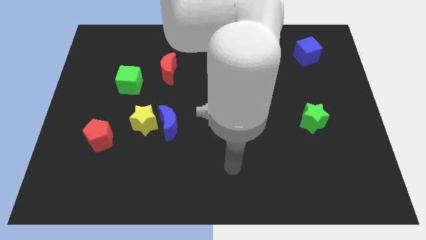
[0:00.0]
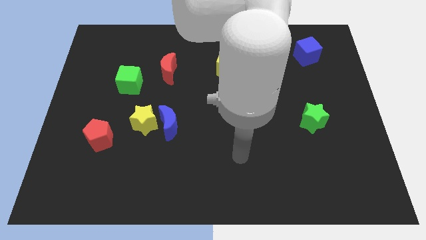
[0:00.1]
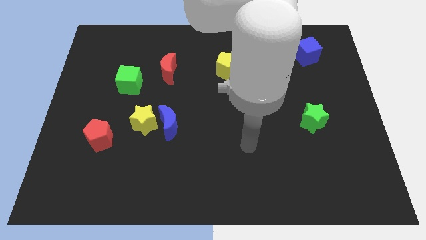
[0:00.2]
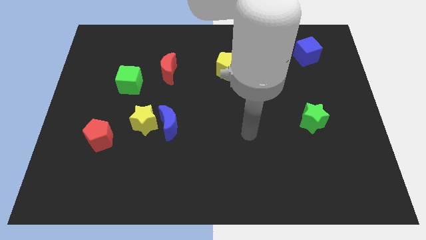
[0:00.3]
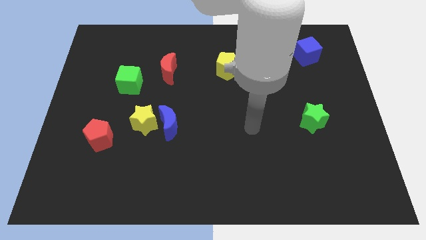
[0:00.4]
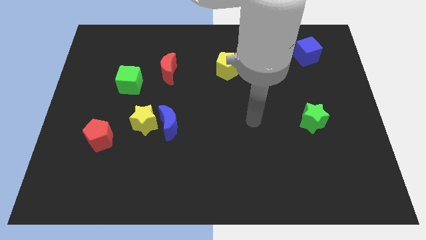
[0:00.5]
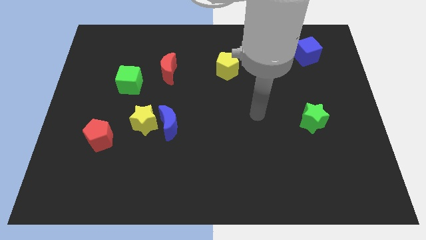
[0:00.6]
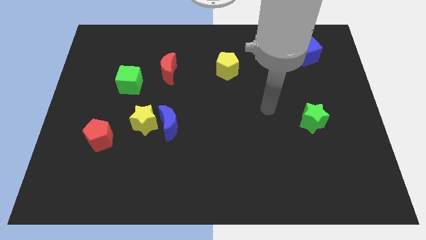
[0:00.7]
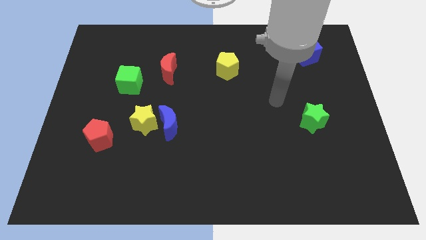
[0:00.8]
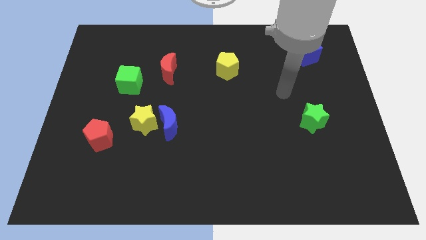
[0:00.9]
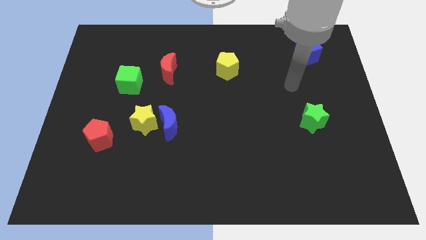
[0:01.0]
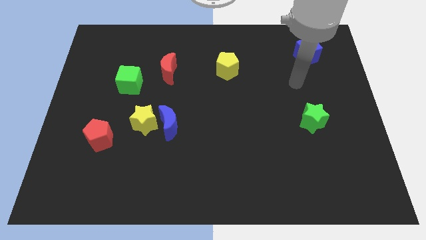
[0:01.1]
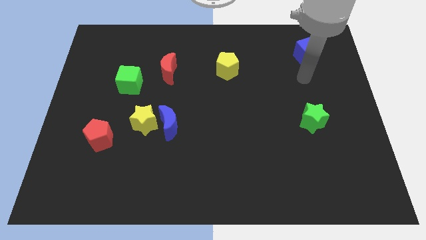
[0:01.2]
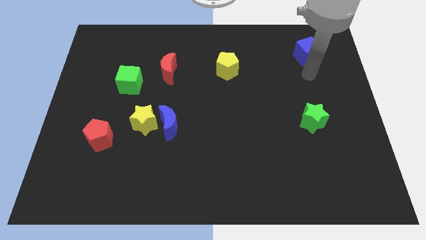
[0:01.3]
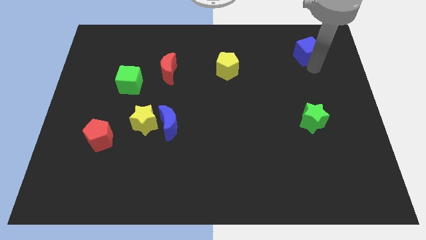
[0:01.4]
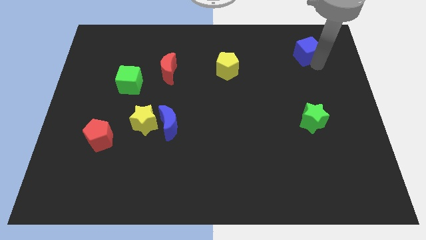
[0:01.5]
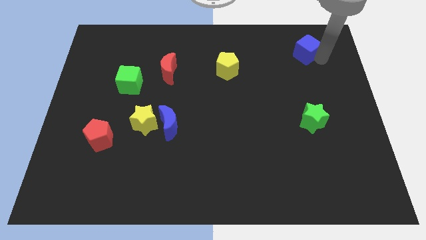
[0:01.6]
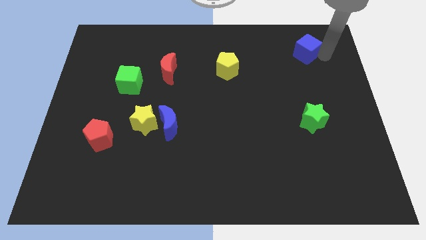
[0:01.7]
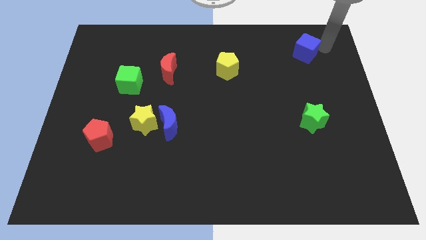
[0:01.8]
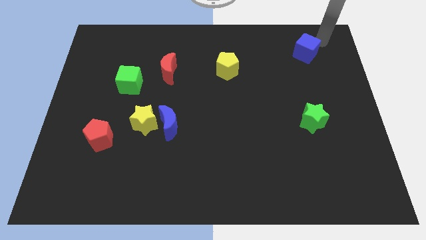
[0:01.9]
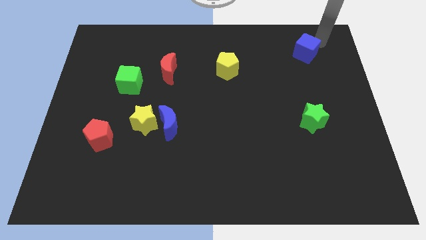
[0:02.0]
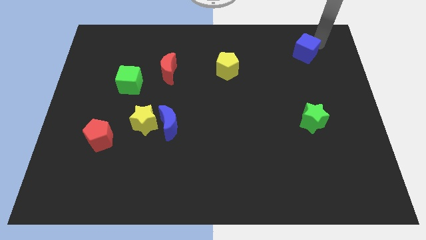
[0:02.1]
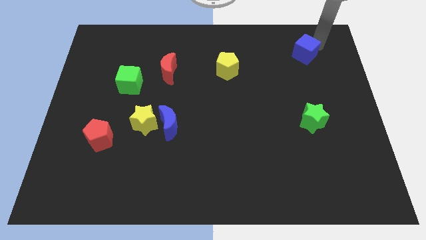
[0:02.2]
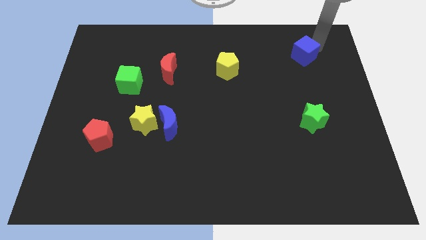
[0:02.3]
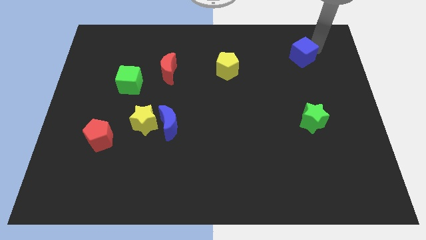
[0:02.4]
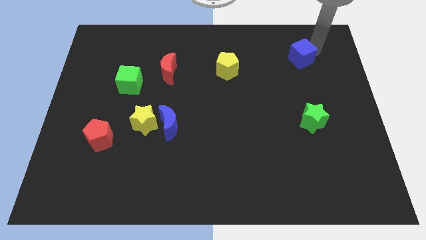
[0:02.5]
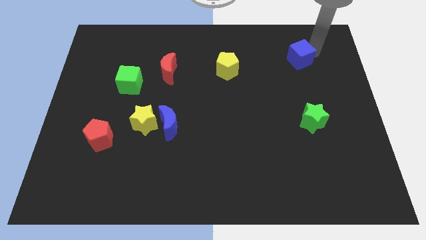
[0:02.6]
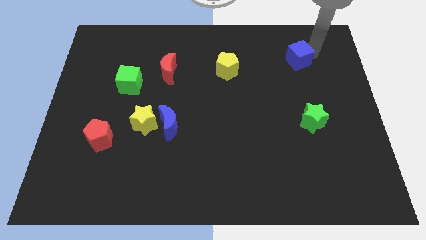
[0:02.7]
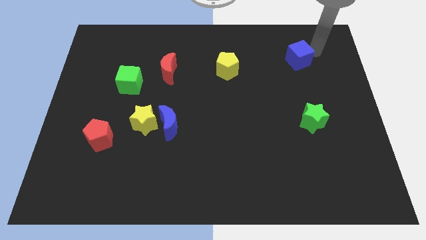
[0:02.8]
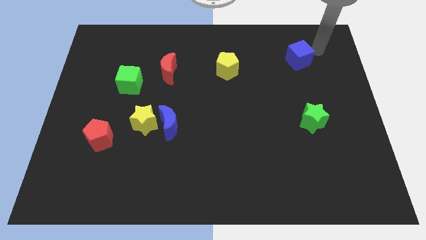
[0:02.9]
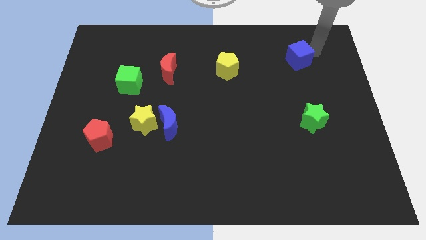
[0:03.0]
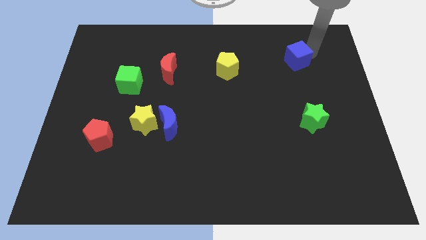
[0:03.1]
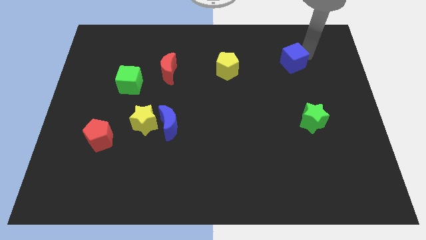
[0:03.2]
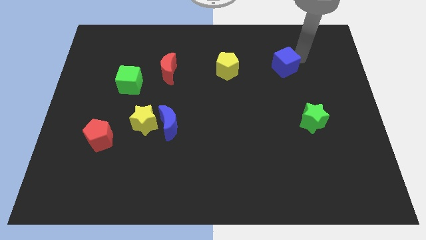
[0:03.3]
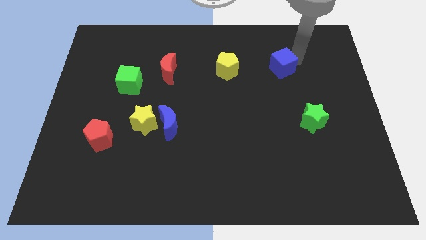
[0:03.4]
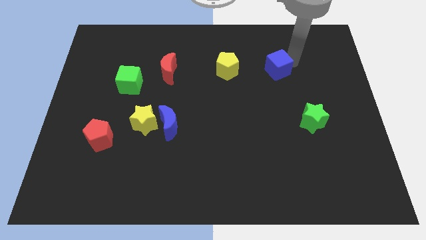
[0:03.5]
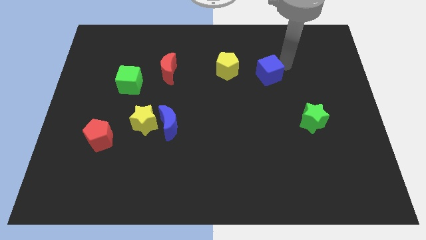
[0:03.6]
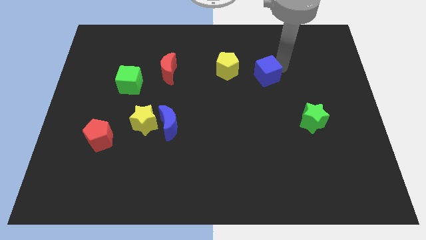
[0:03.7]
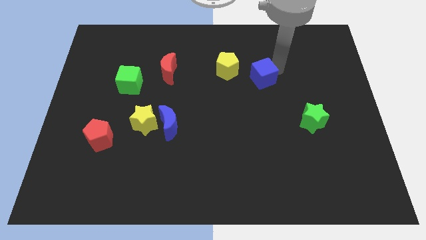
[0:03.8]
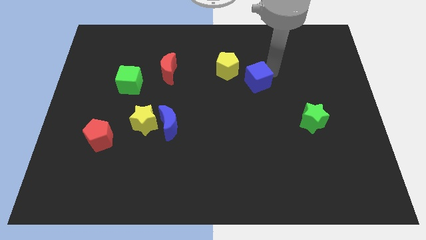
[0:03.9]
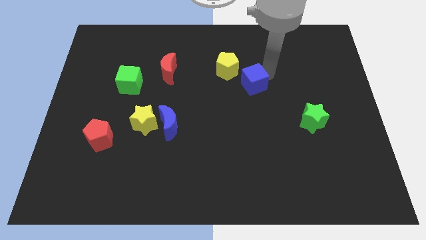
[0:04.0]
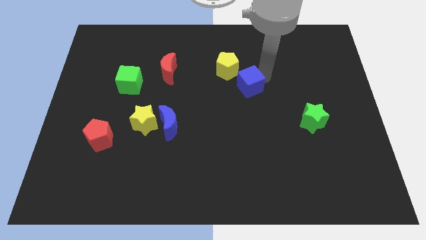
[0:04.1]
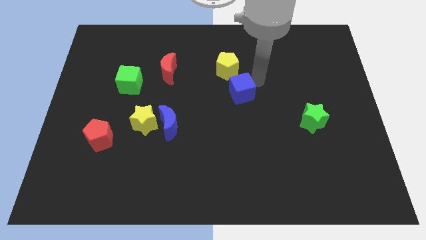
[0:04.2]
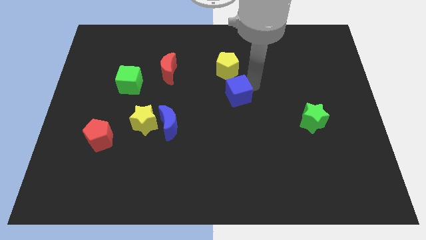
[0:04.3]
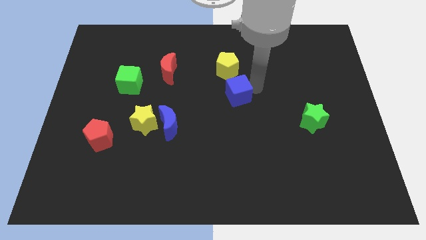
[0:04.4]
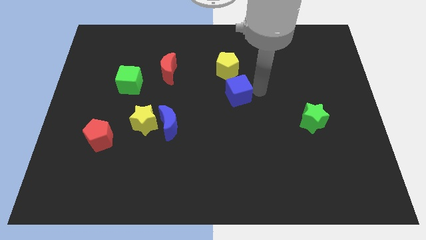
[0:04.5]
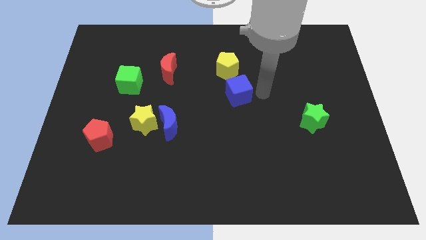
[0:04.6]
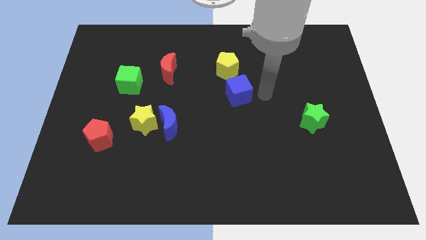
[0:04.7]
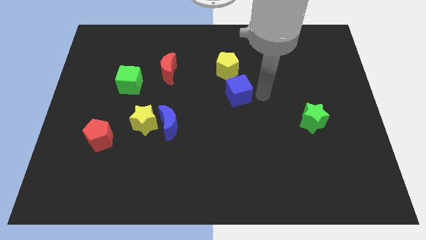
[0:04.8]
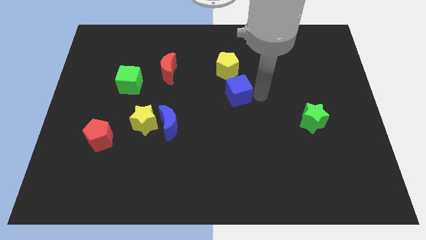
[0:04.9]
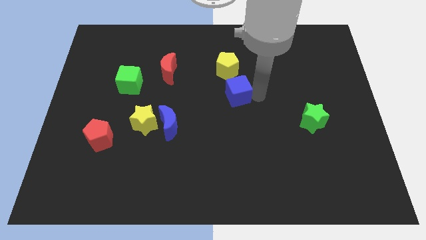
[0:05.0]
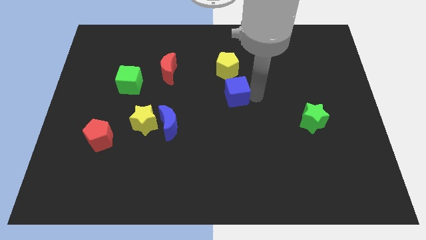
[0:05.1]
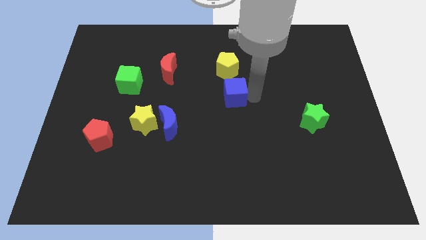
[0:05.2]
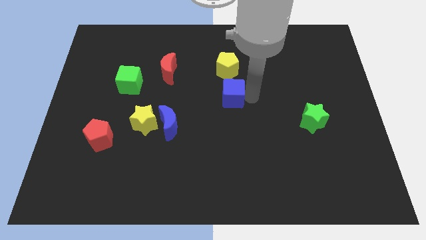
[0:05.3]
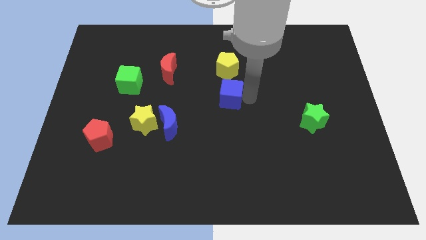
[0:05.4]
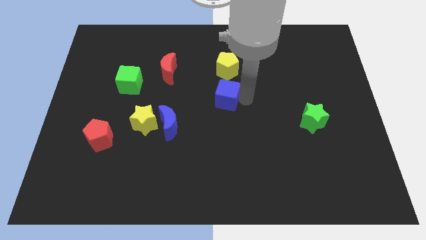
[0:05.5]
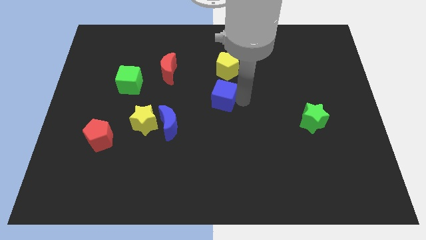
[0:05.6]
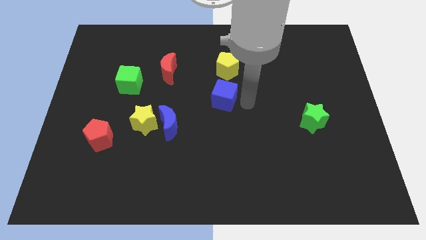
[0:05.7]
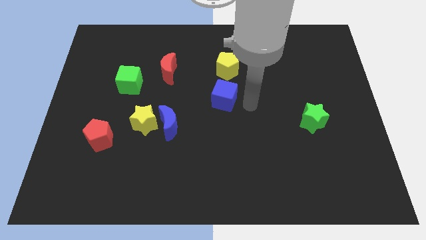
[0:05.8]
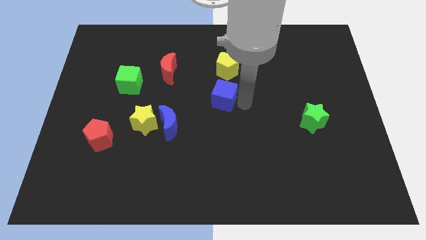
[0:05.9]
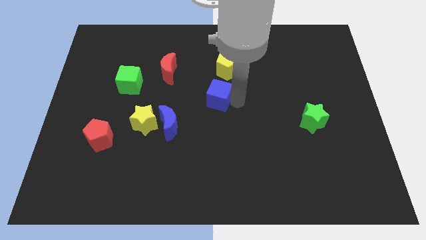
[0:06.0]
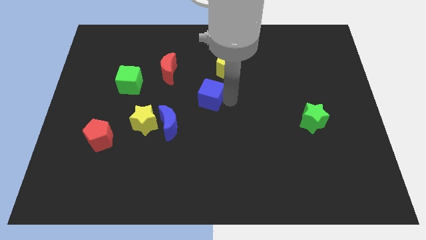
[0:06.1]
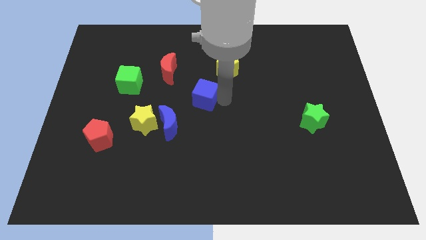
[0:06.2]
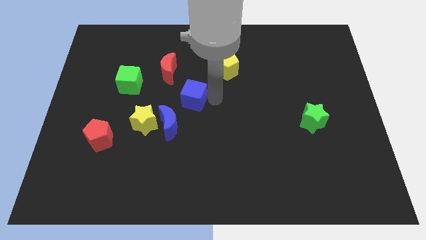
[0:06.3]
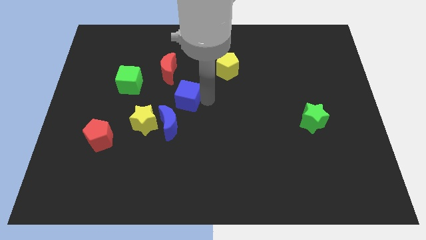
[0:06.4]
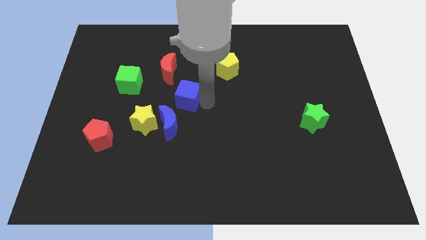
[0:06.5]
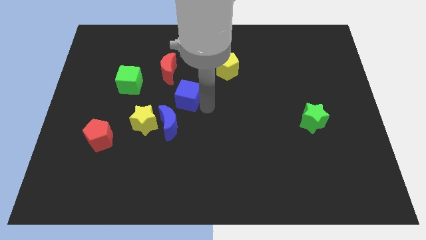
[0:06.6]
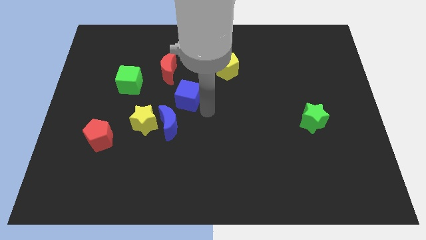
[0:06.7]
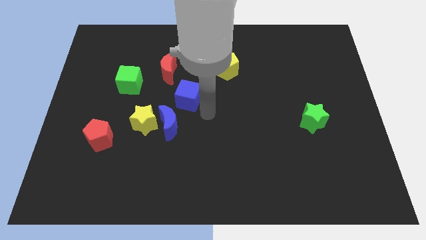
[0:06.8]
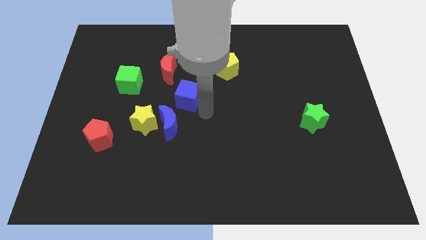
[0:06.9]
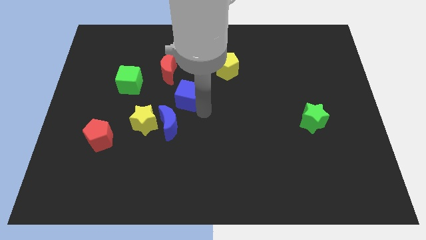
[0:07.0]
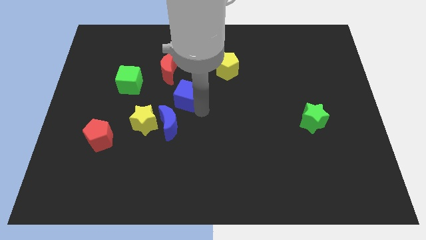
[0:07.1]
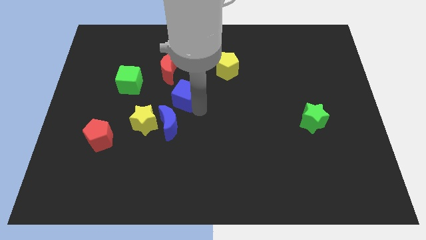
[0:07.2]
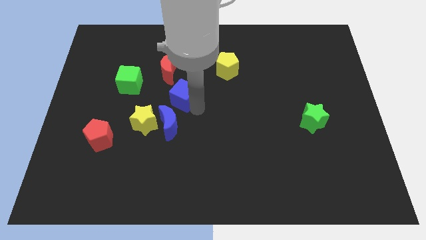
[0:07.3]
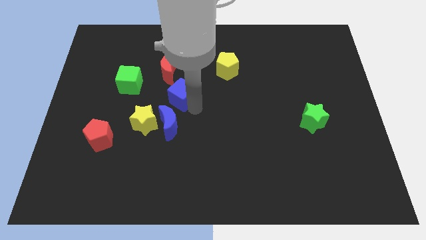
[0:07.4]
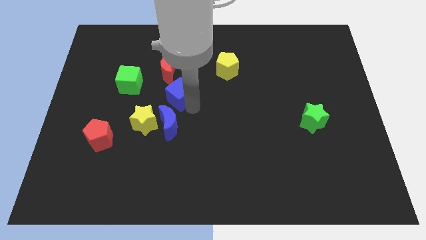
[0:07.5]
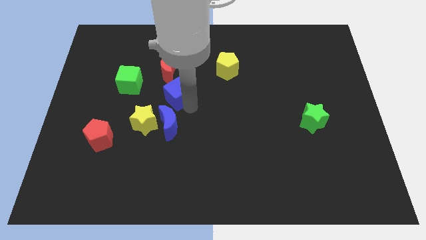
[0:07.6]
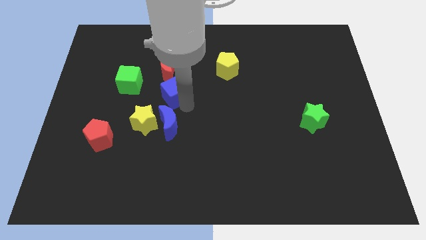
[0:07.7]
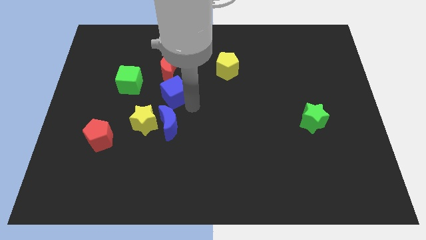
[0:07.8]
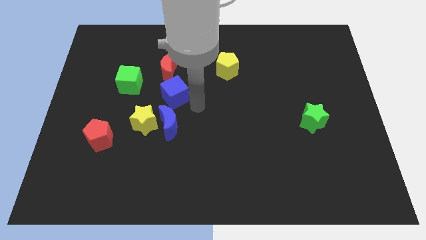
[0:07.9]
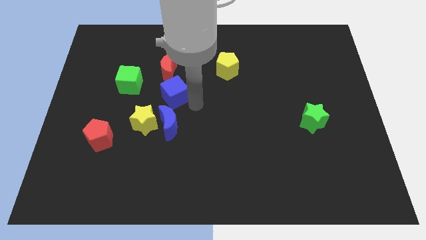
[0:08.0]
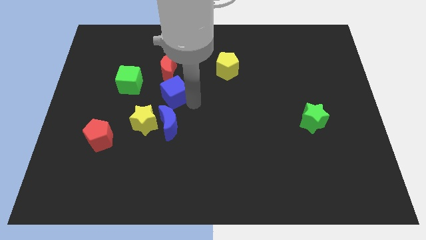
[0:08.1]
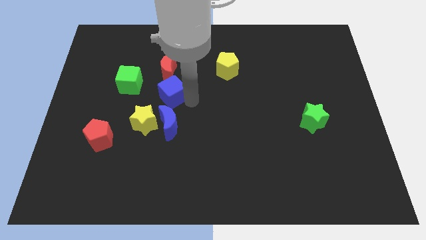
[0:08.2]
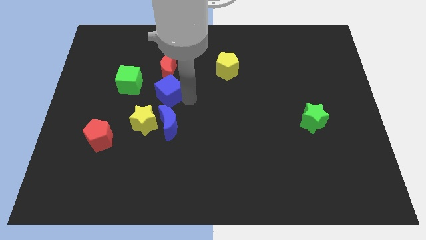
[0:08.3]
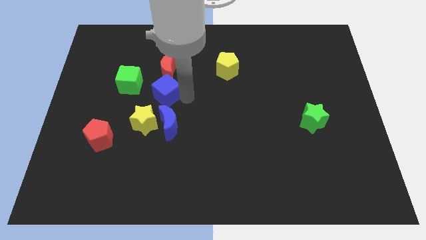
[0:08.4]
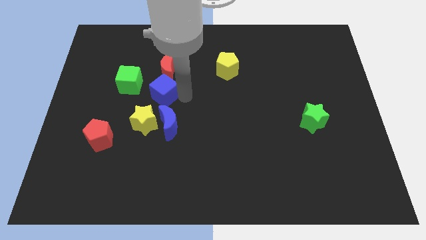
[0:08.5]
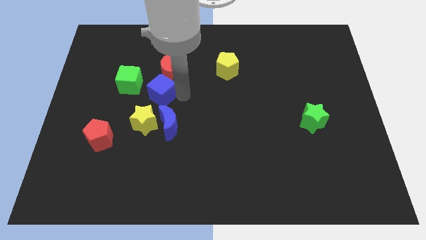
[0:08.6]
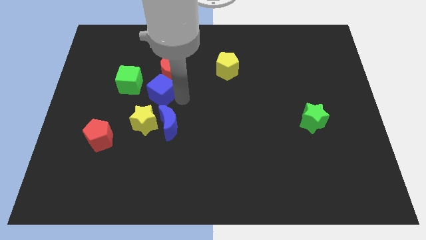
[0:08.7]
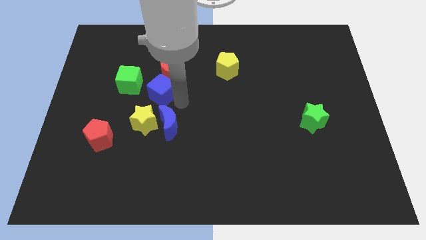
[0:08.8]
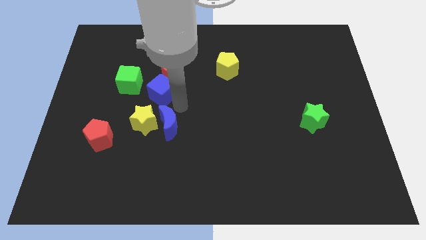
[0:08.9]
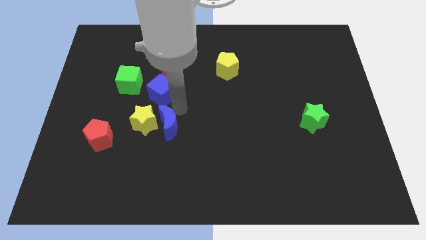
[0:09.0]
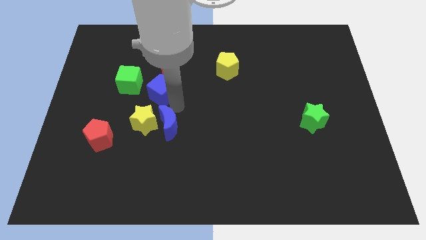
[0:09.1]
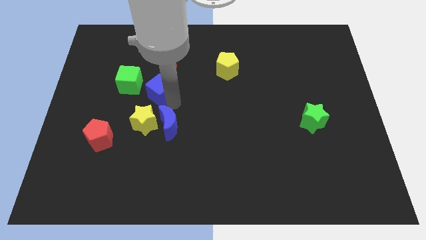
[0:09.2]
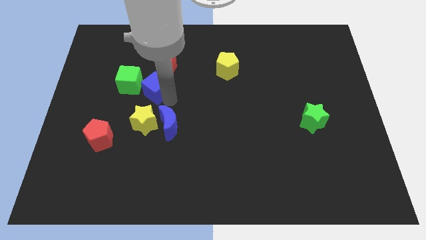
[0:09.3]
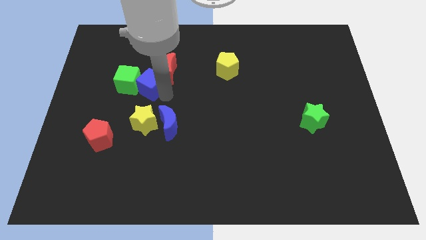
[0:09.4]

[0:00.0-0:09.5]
push the blue cube to the green cube
